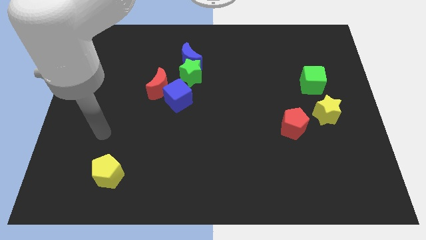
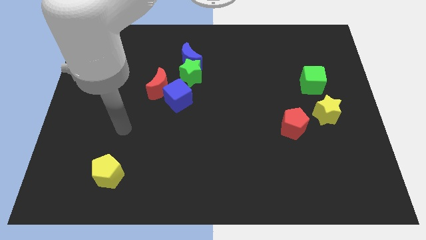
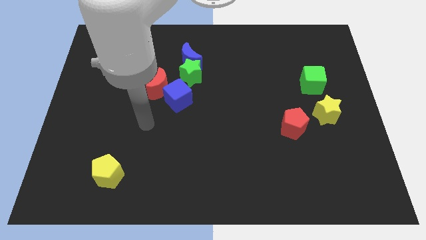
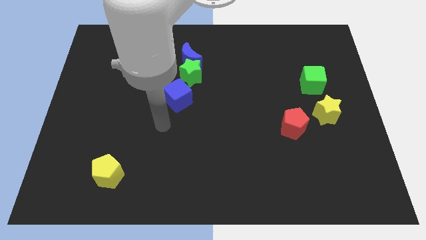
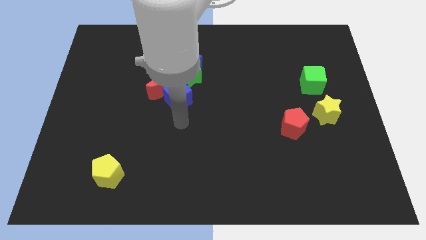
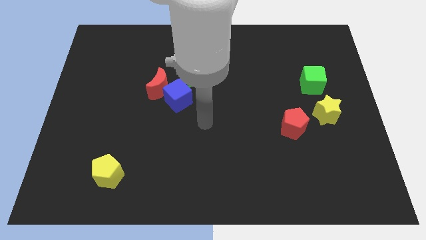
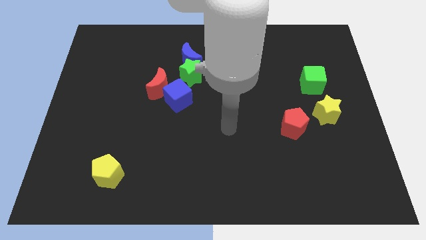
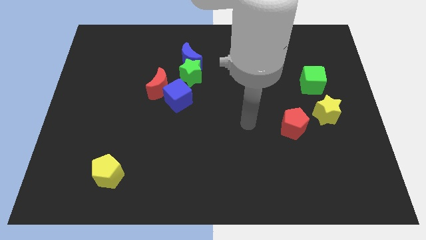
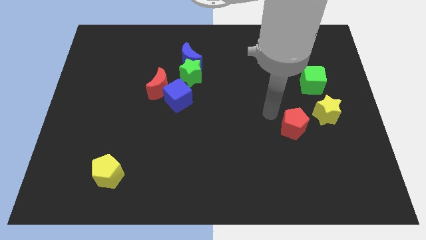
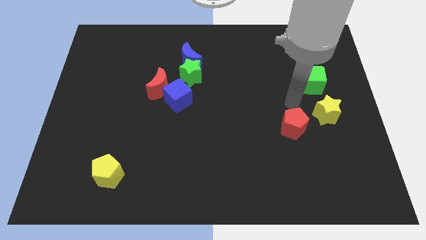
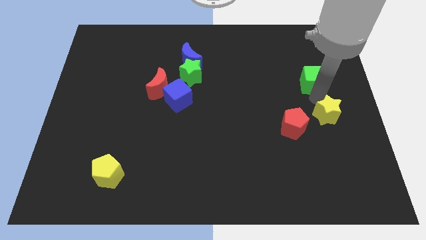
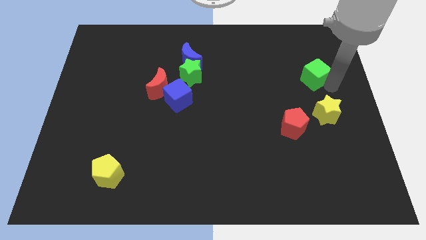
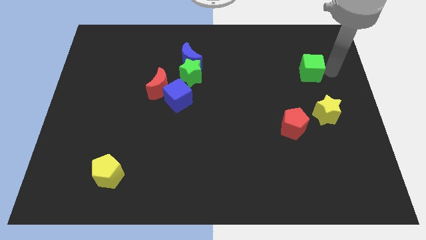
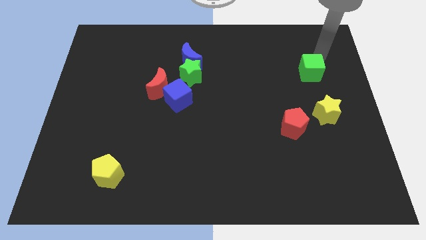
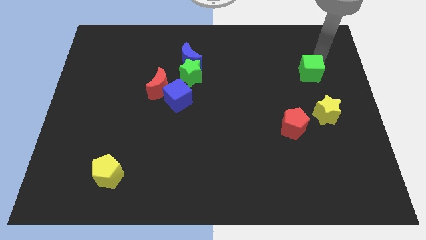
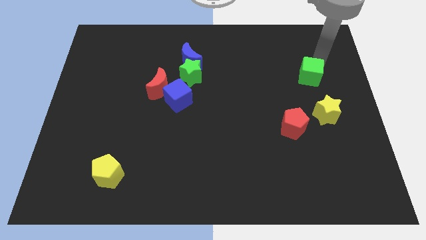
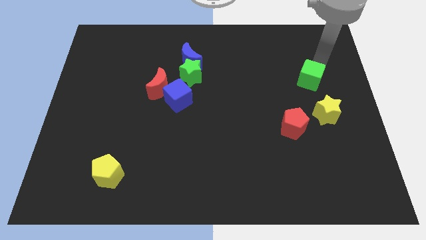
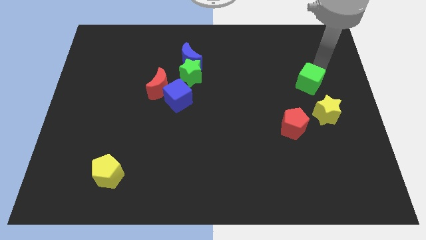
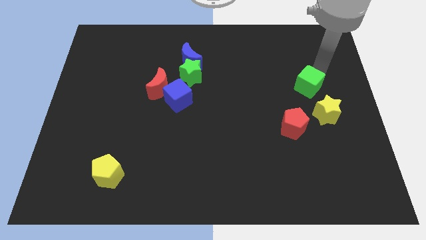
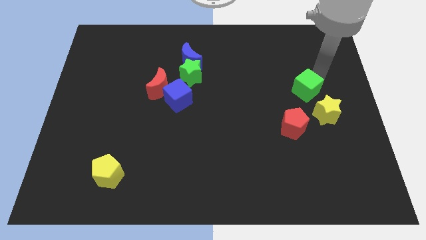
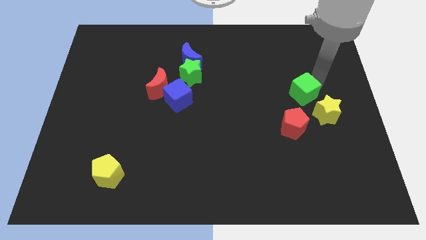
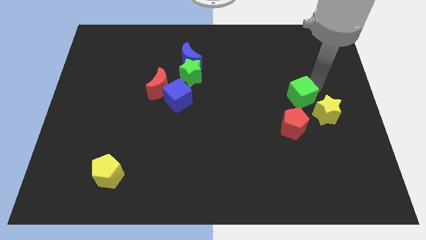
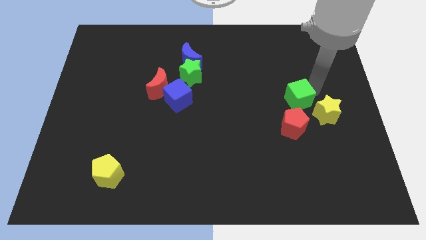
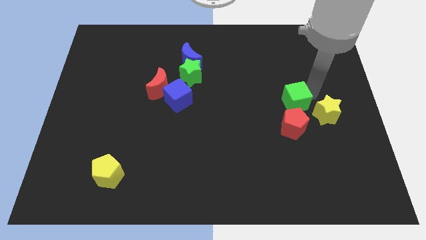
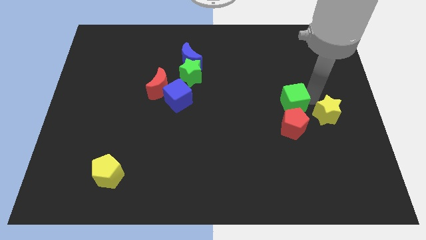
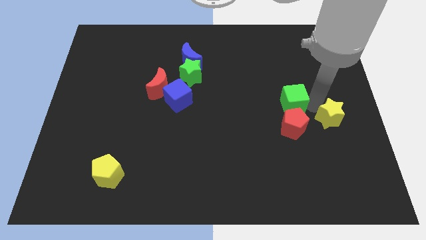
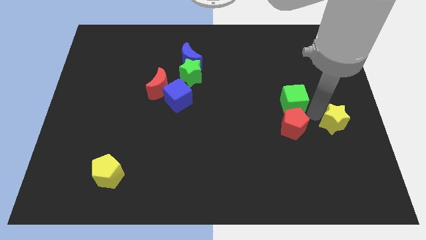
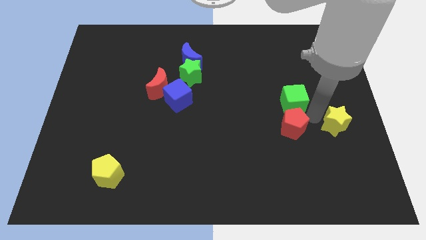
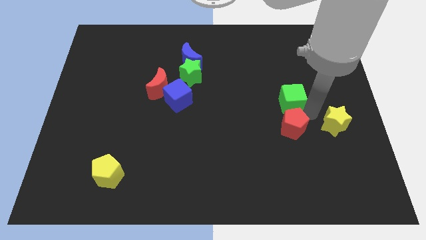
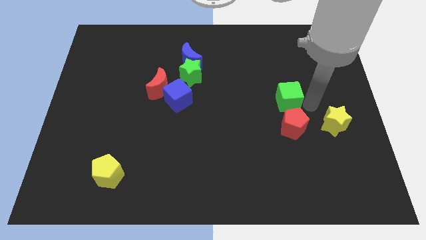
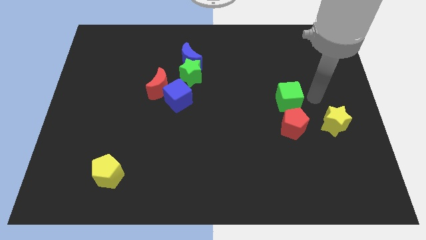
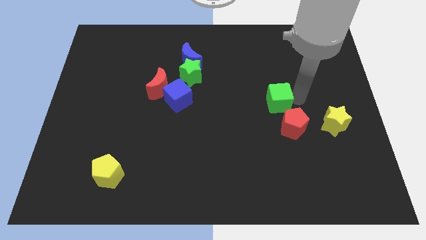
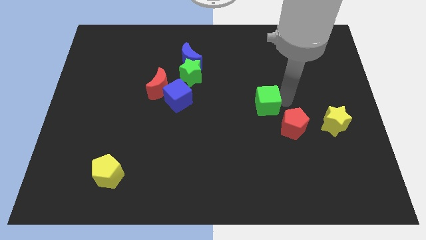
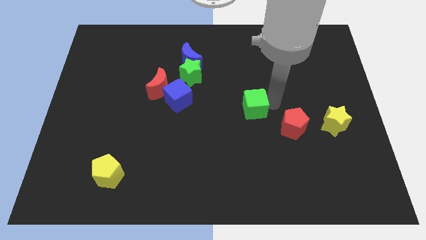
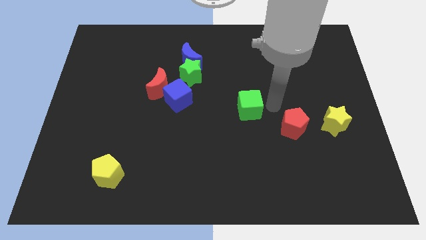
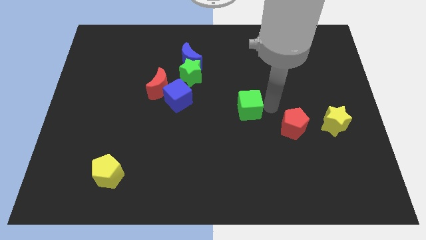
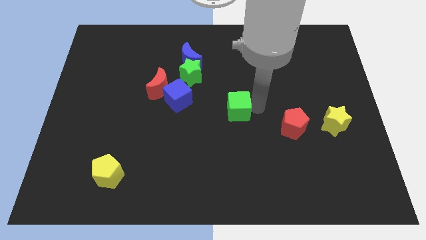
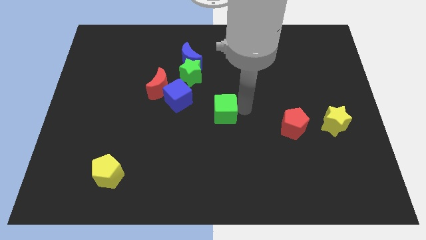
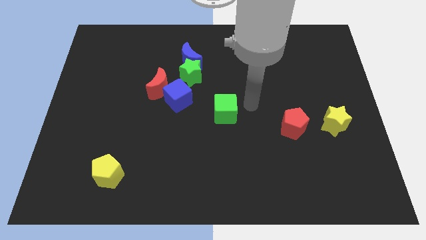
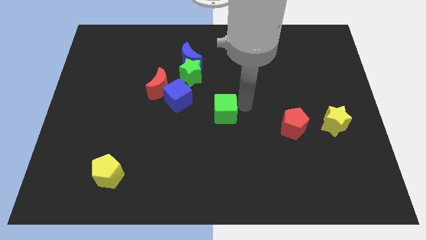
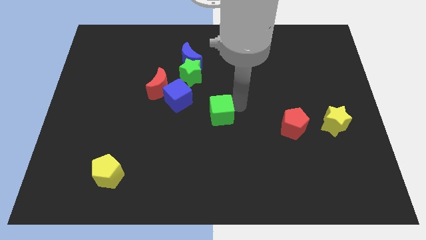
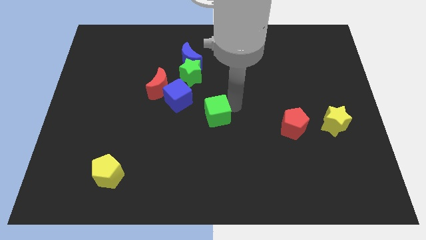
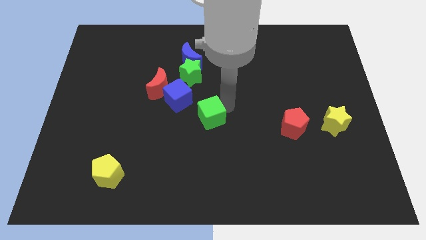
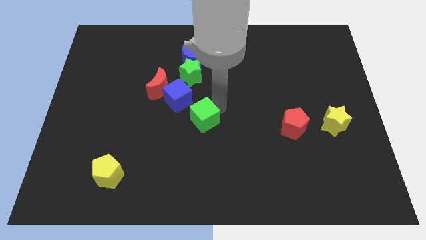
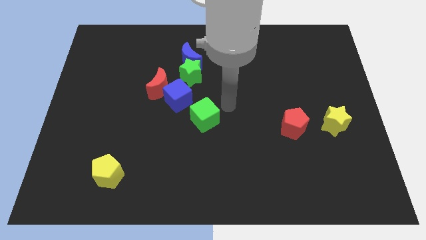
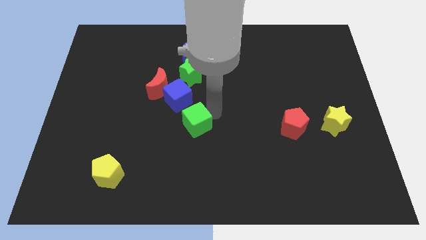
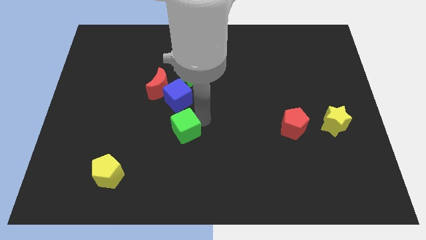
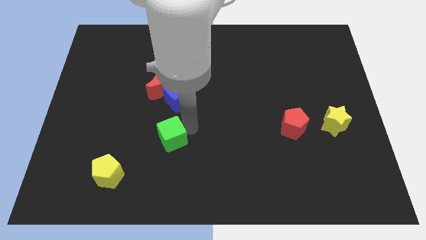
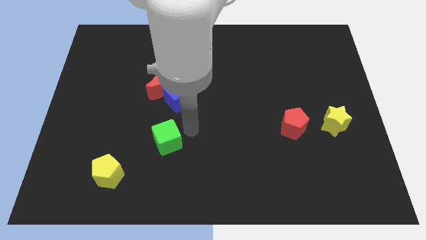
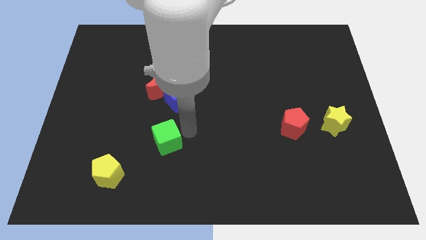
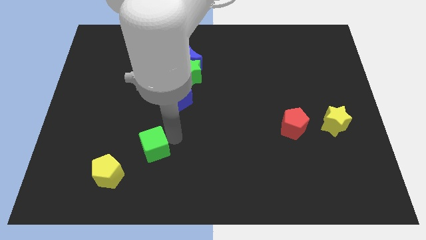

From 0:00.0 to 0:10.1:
slide the green cube diagonally up and to the right of the yellow pentagon

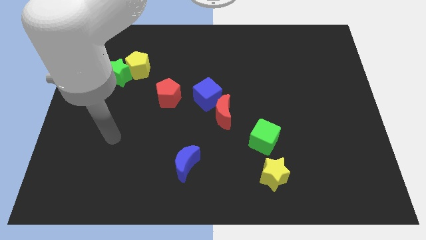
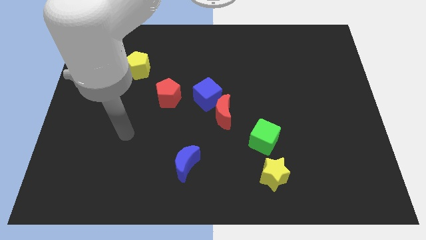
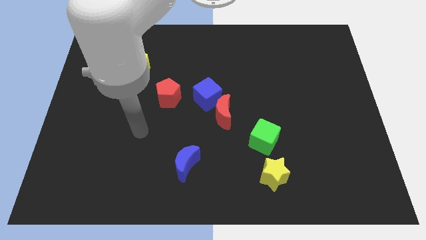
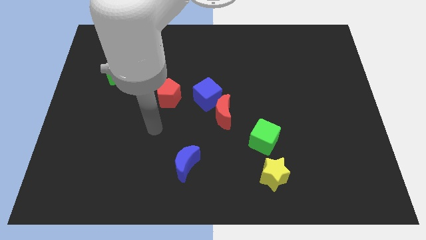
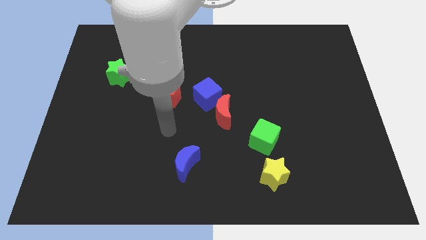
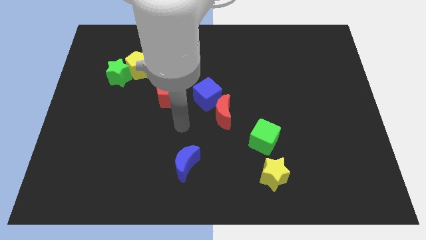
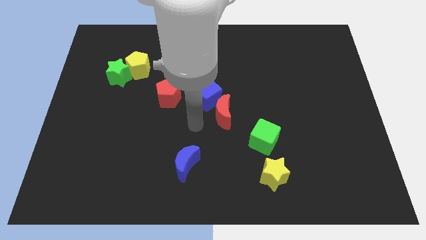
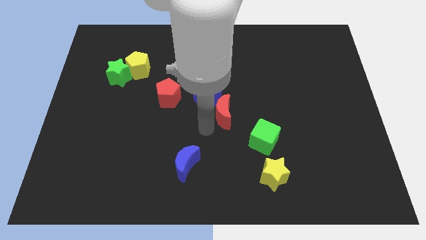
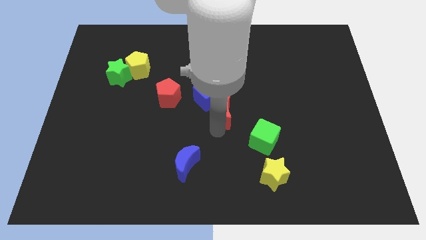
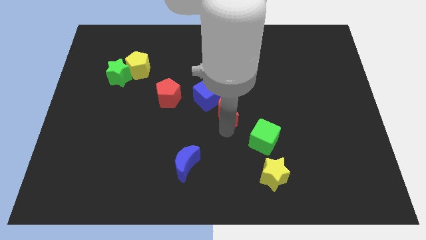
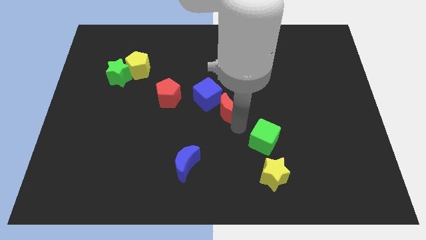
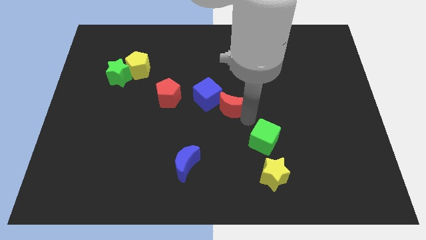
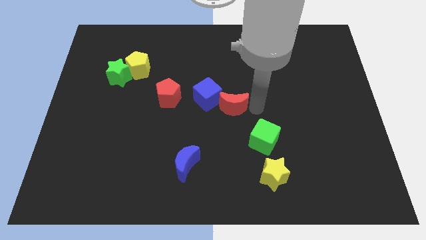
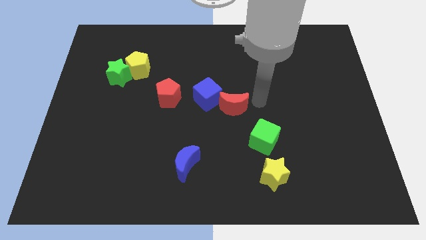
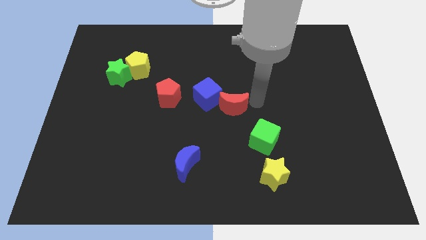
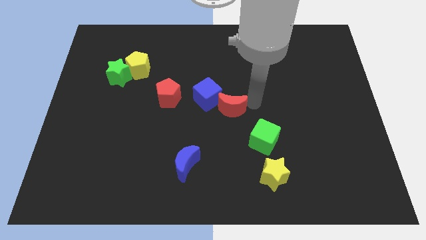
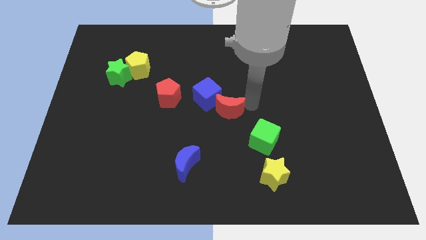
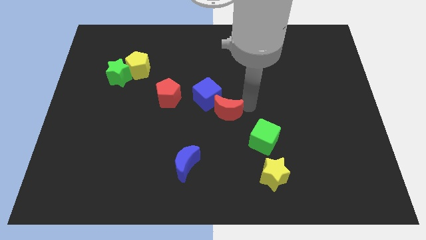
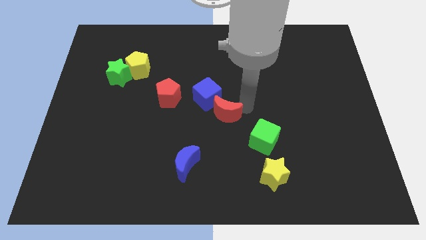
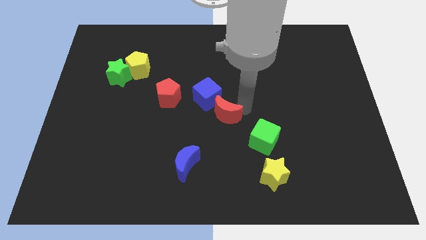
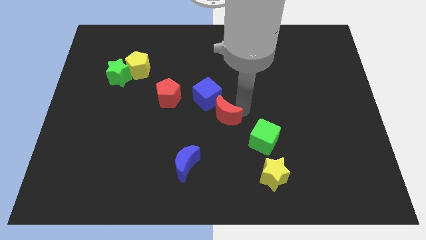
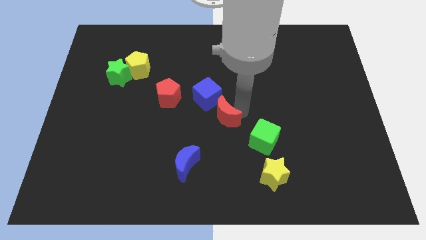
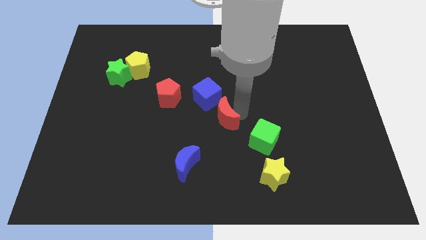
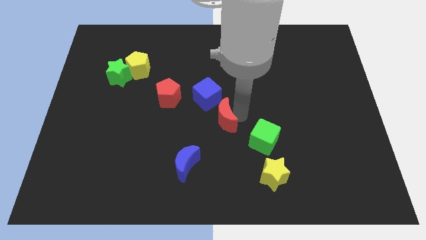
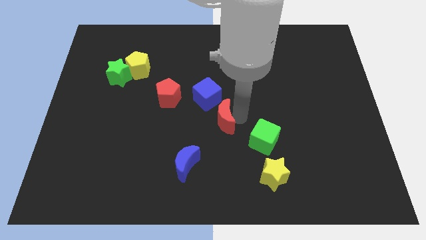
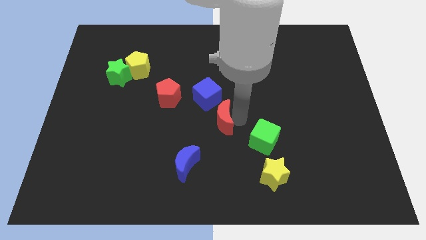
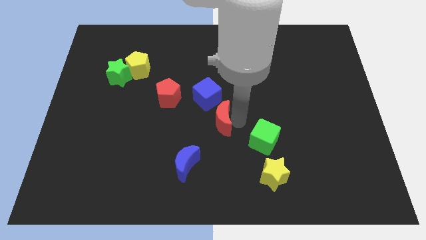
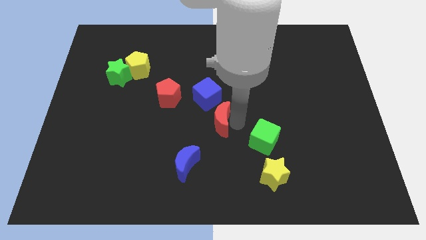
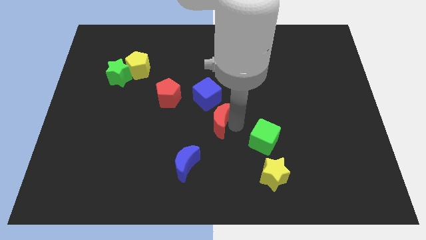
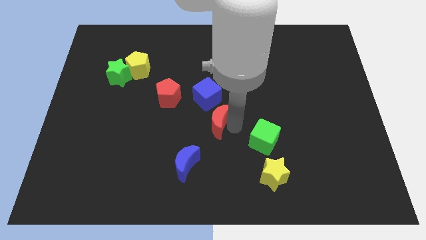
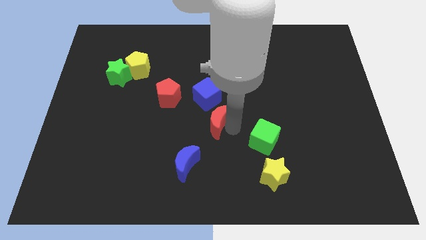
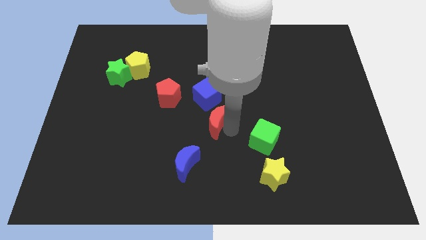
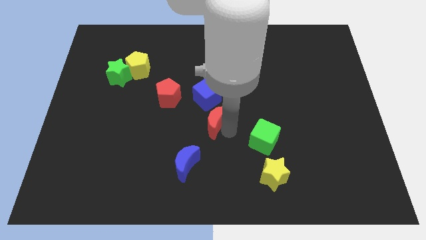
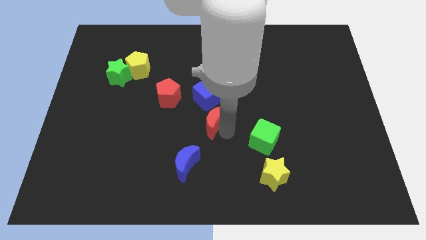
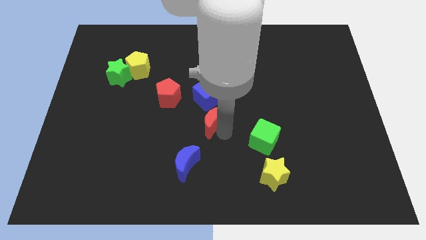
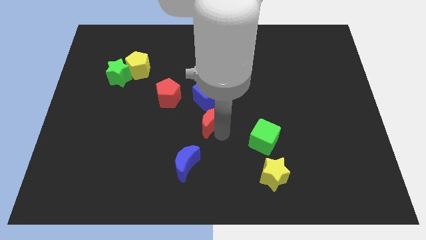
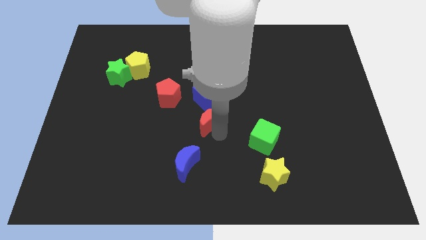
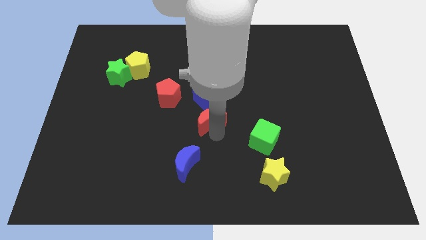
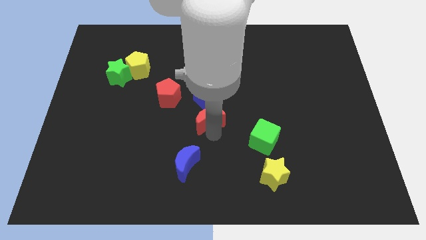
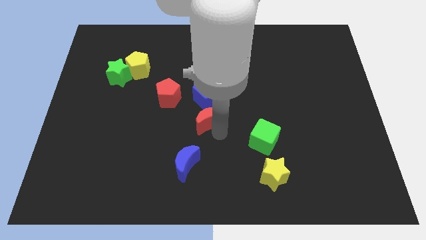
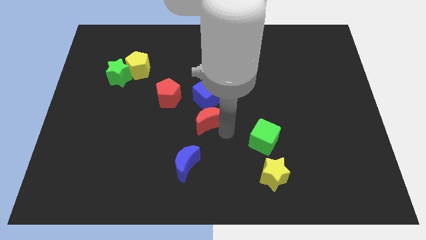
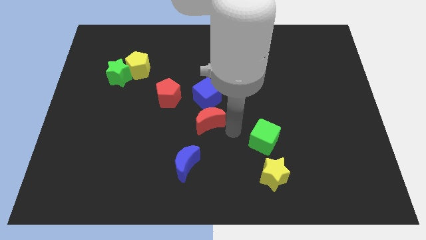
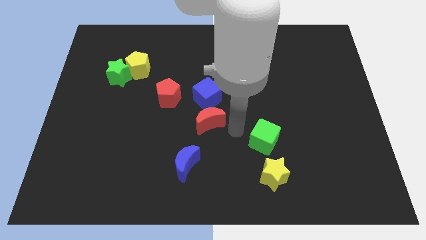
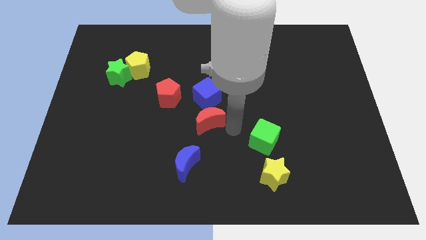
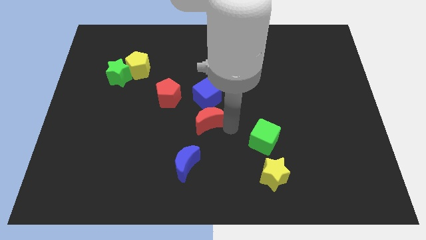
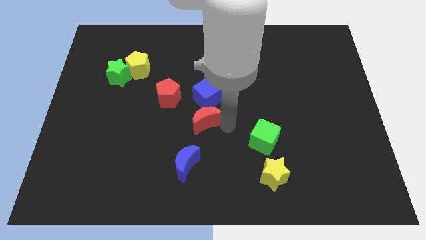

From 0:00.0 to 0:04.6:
slide the red moon to the bottom left side of the blue cube
